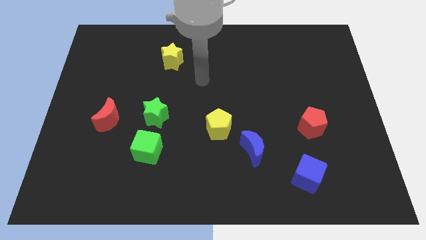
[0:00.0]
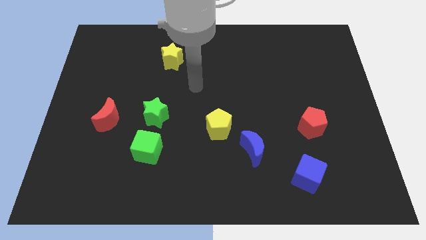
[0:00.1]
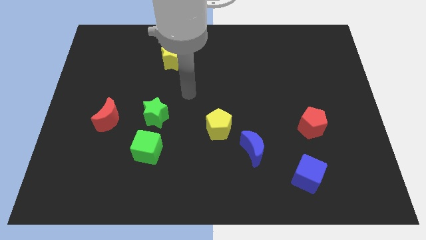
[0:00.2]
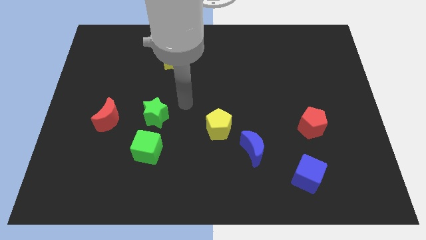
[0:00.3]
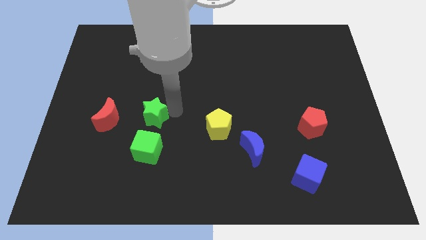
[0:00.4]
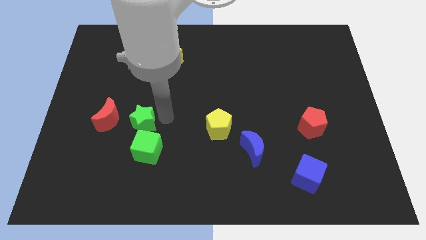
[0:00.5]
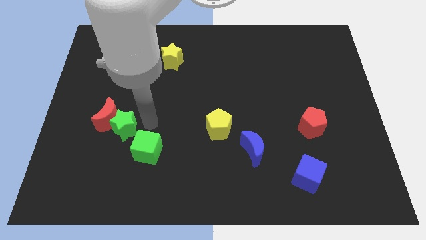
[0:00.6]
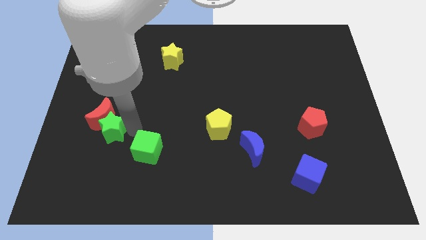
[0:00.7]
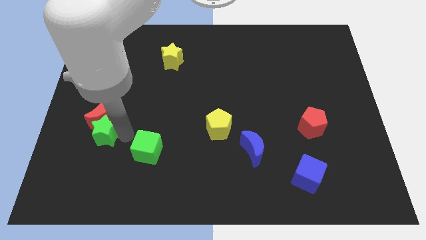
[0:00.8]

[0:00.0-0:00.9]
pull the green cube apart from the green star

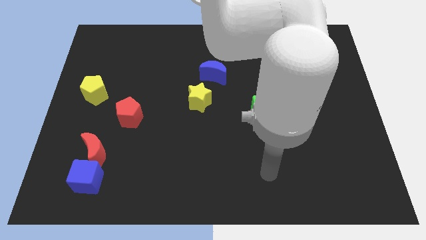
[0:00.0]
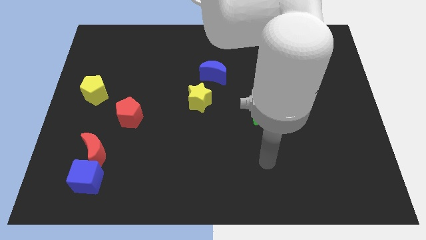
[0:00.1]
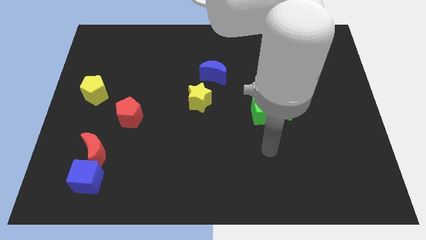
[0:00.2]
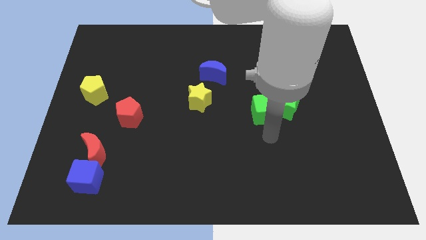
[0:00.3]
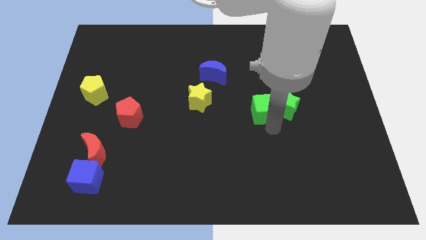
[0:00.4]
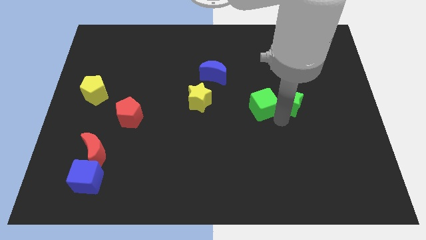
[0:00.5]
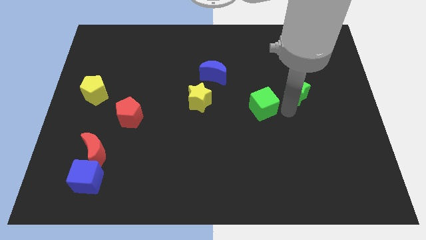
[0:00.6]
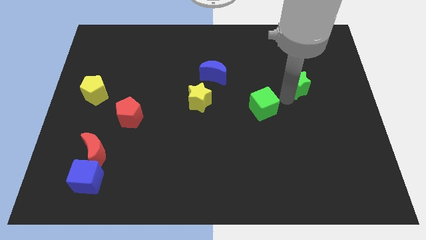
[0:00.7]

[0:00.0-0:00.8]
move the green cube away from the green star

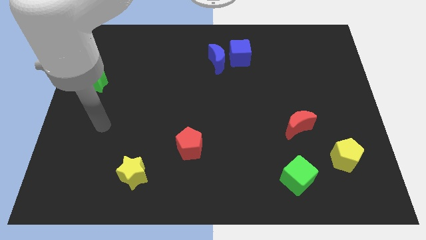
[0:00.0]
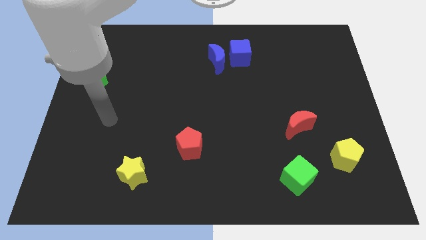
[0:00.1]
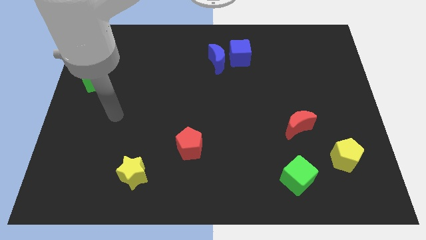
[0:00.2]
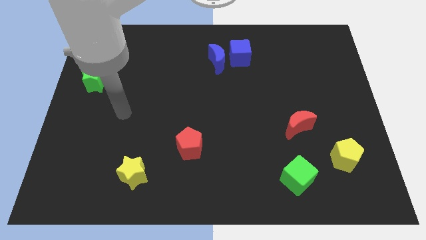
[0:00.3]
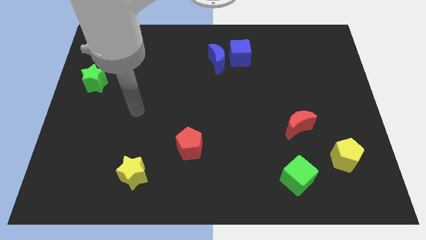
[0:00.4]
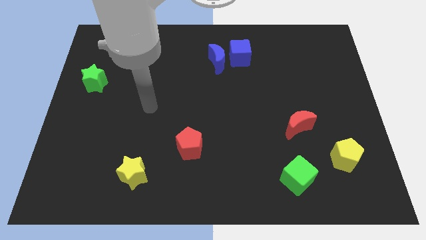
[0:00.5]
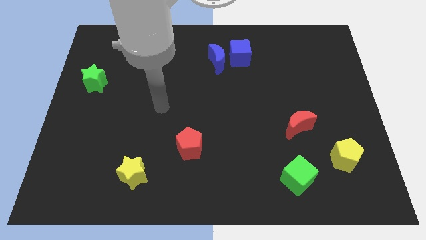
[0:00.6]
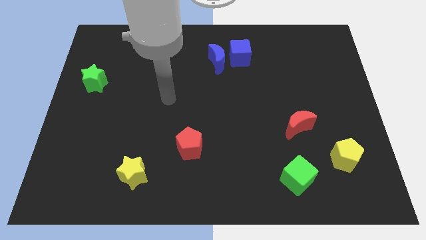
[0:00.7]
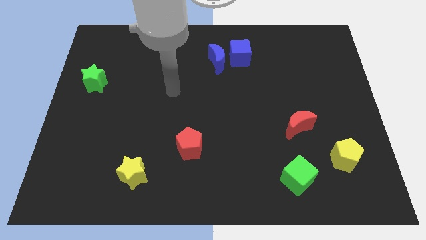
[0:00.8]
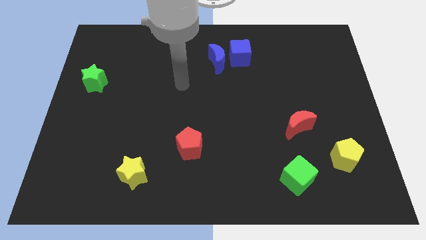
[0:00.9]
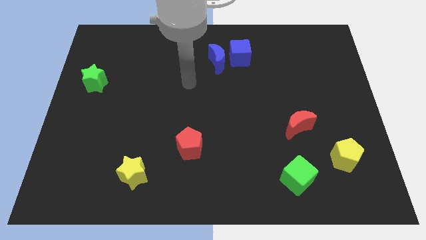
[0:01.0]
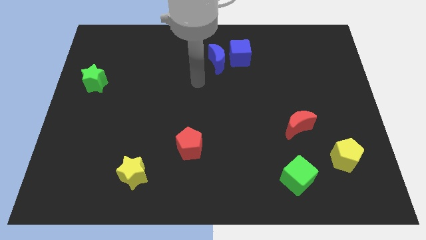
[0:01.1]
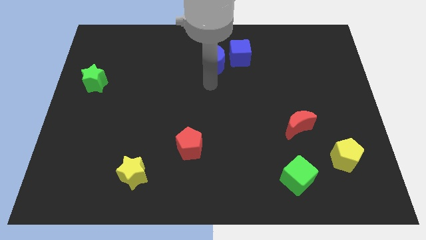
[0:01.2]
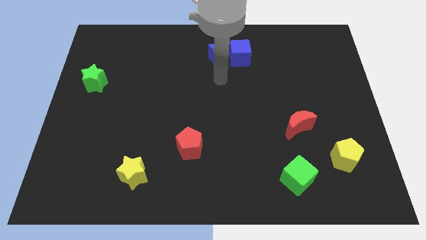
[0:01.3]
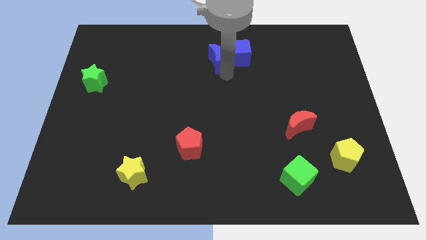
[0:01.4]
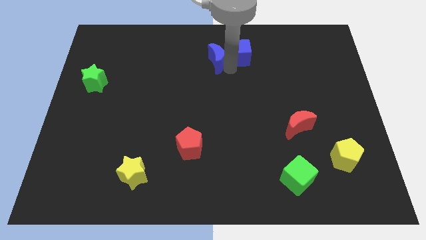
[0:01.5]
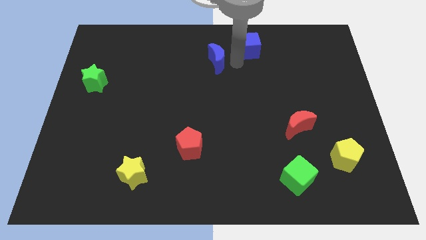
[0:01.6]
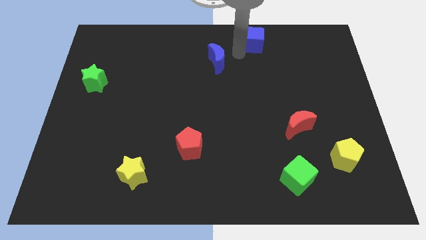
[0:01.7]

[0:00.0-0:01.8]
separate the blue moon from the blue cube

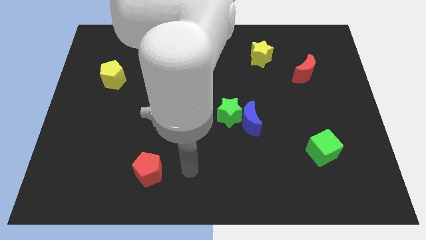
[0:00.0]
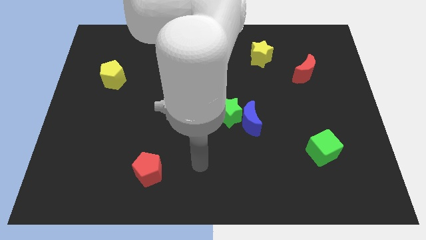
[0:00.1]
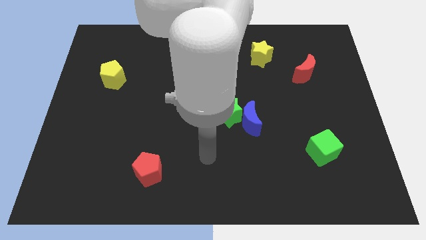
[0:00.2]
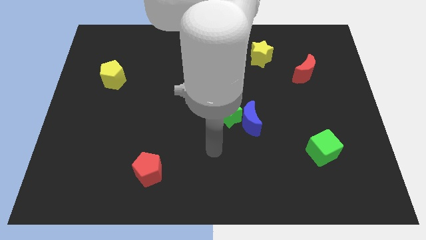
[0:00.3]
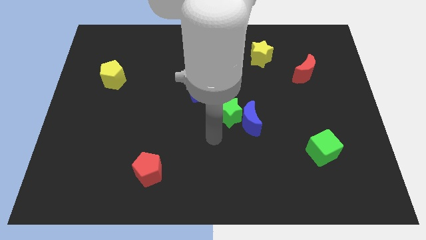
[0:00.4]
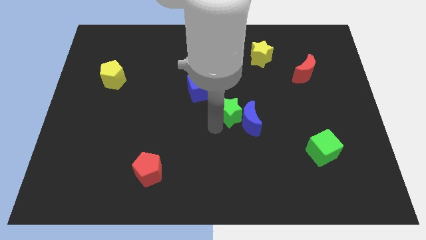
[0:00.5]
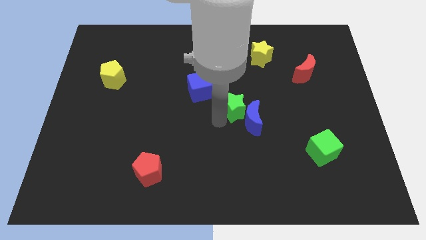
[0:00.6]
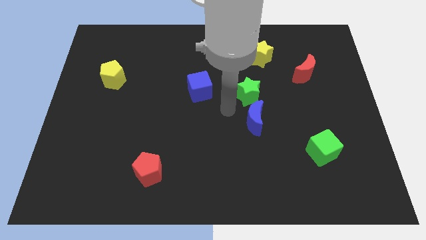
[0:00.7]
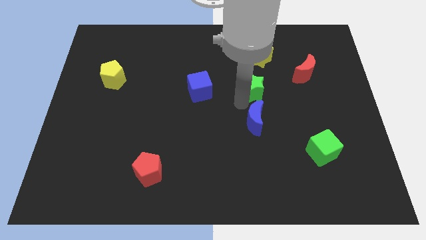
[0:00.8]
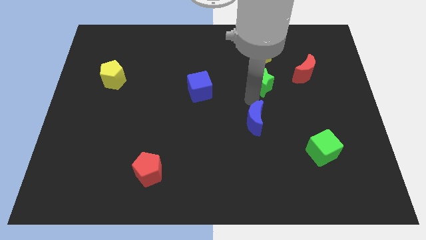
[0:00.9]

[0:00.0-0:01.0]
pull the blue moon apart from the green star

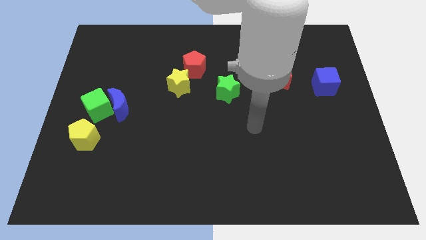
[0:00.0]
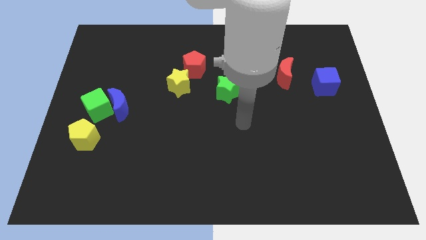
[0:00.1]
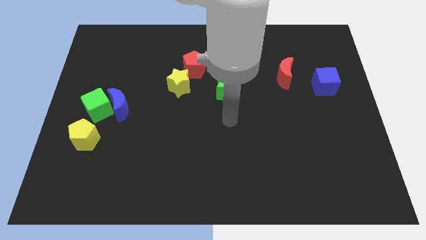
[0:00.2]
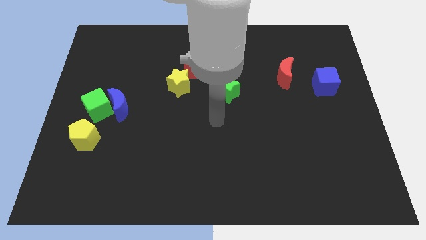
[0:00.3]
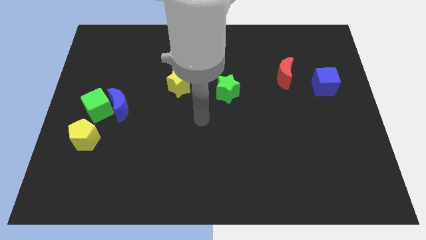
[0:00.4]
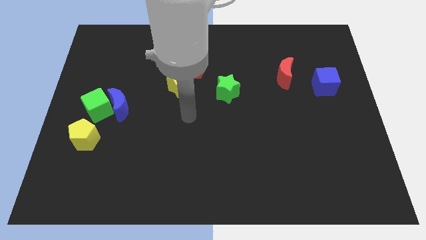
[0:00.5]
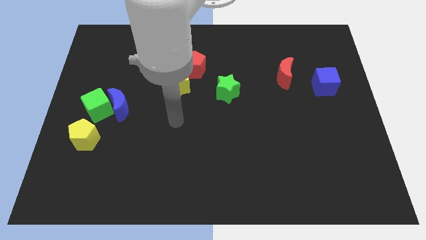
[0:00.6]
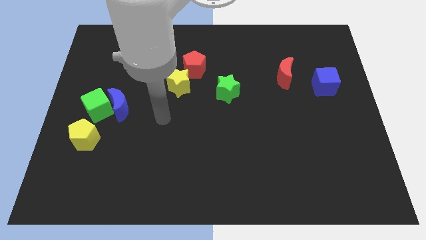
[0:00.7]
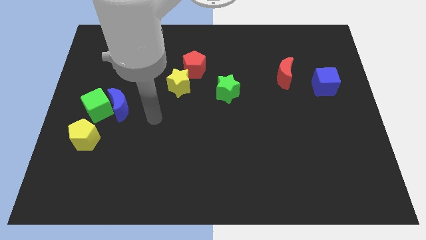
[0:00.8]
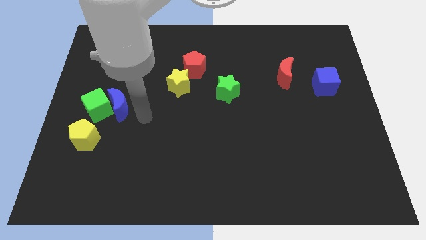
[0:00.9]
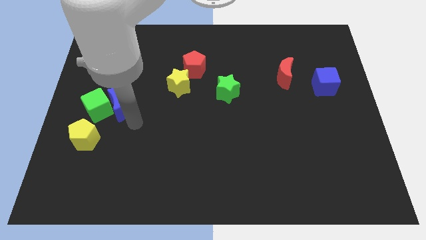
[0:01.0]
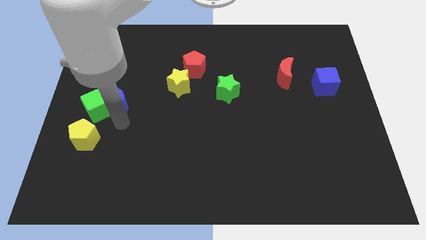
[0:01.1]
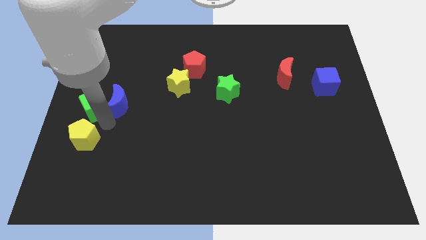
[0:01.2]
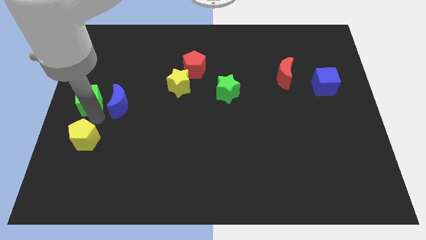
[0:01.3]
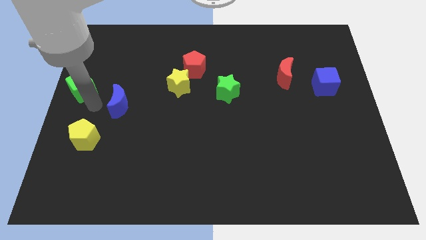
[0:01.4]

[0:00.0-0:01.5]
pull the blue moon apart from the green cube

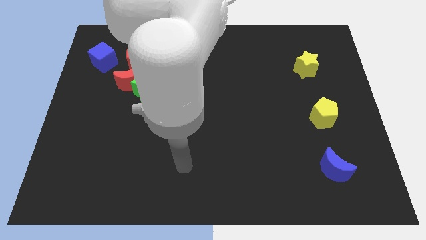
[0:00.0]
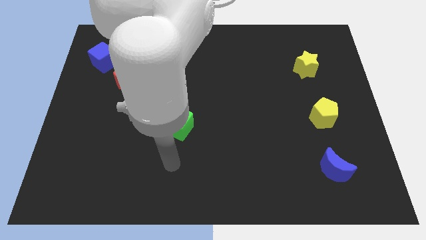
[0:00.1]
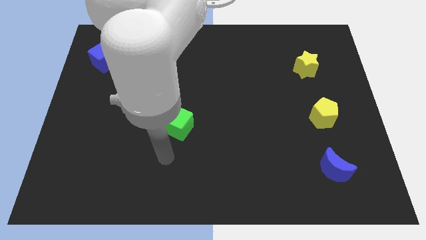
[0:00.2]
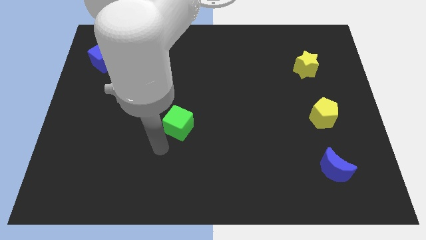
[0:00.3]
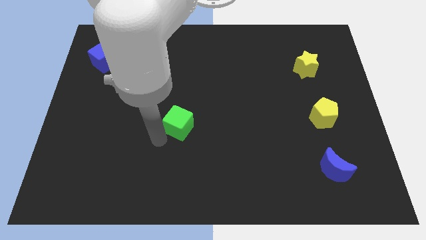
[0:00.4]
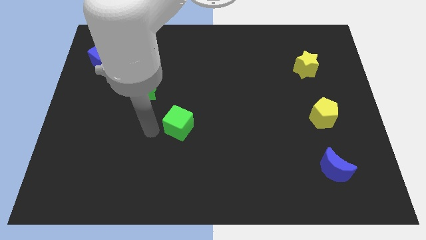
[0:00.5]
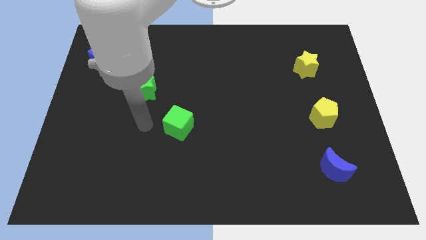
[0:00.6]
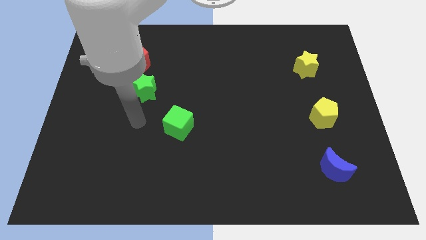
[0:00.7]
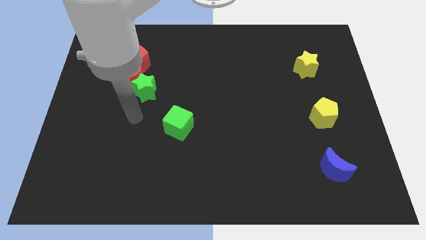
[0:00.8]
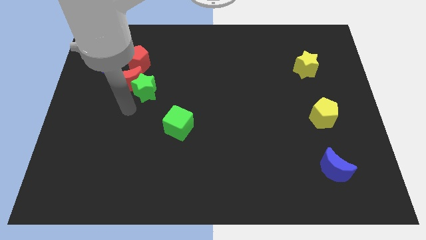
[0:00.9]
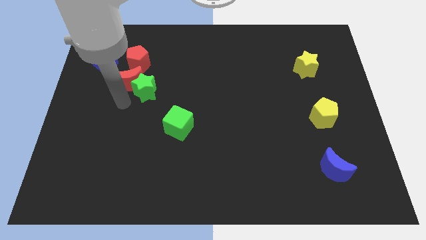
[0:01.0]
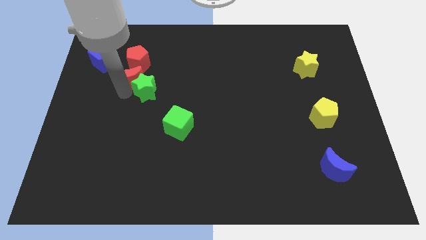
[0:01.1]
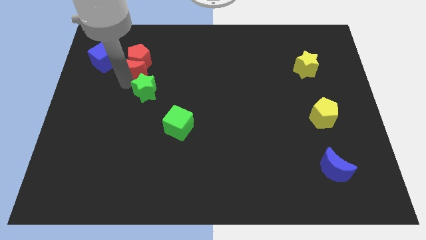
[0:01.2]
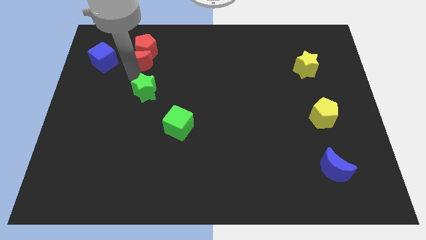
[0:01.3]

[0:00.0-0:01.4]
move the green star away from the red moon

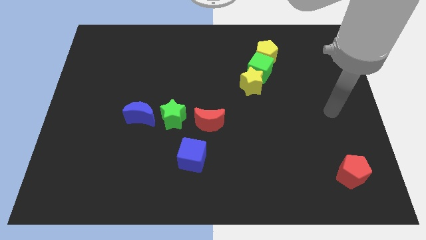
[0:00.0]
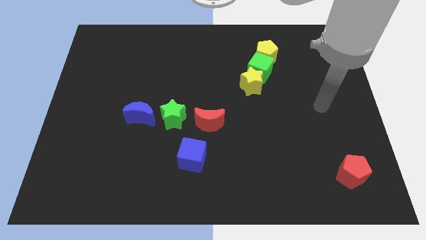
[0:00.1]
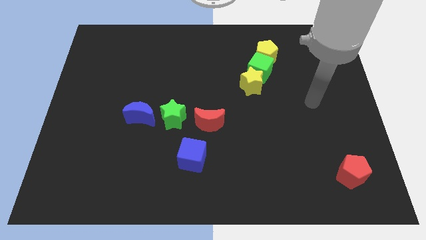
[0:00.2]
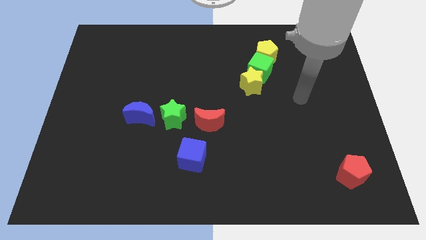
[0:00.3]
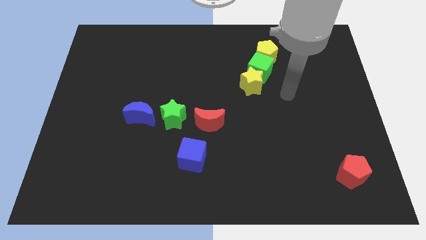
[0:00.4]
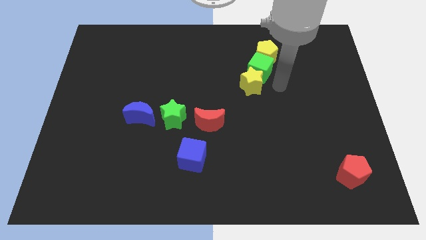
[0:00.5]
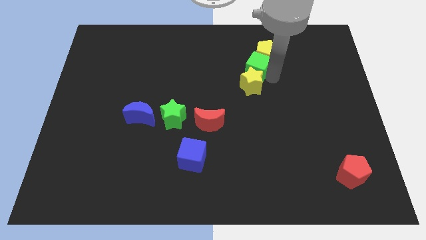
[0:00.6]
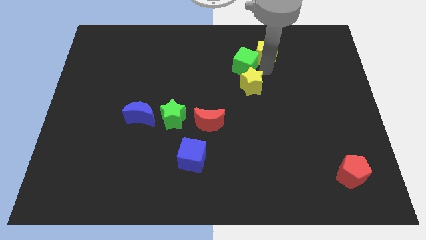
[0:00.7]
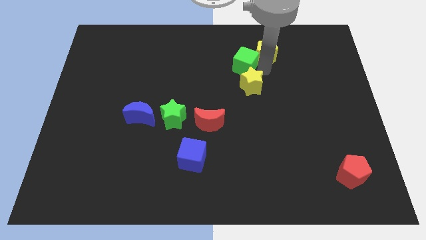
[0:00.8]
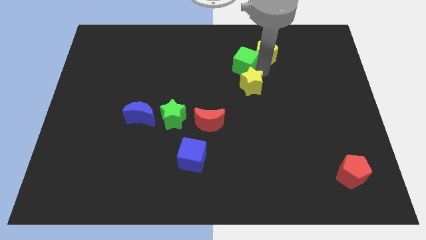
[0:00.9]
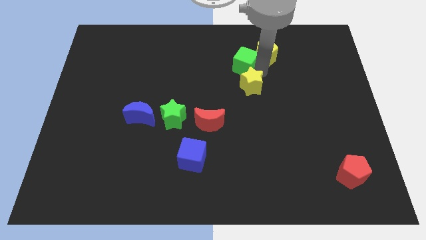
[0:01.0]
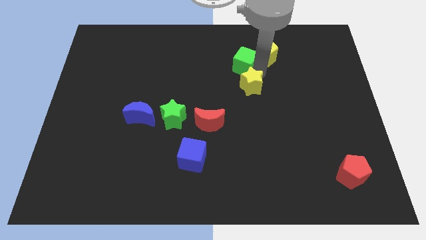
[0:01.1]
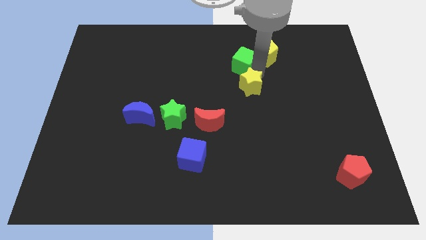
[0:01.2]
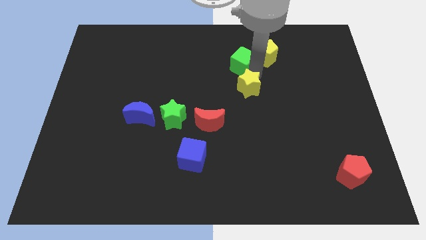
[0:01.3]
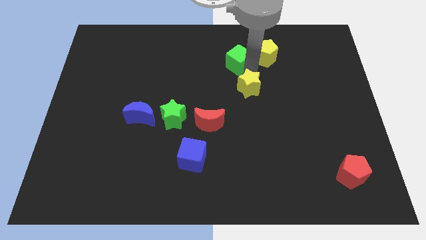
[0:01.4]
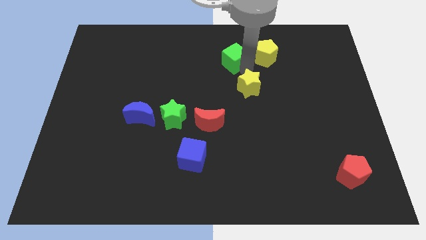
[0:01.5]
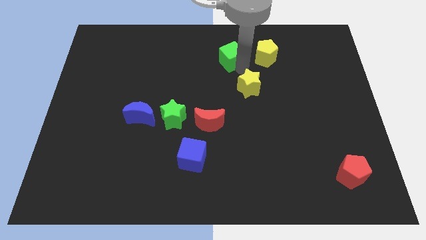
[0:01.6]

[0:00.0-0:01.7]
pull the yellow star apart from the green cube

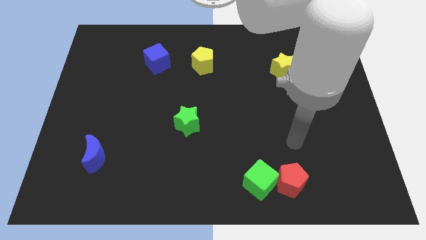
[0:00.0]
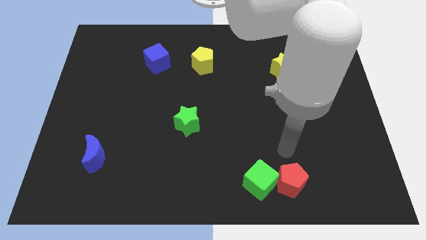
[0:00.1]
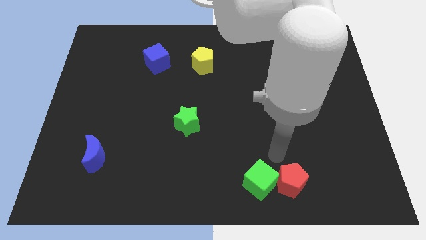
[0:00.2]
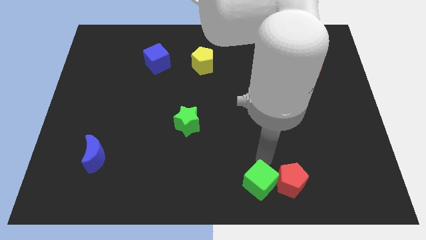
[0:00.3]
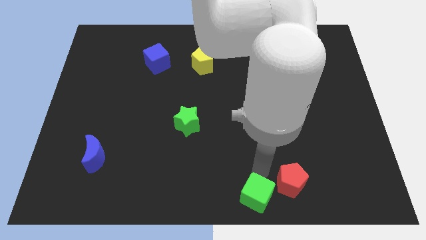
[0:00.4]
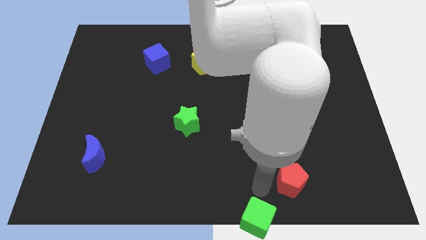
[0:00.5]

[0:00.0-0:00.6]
pull the red pentagon apart from the green cube
